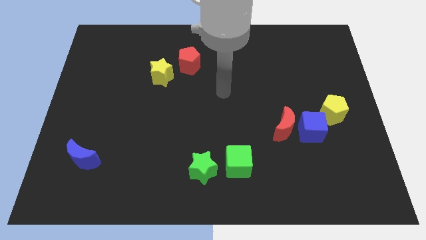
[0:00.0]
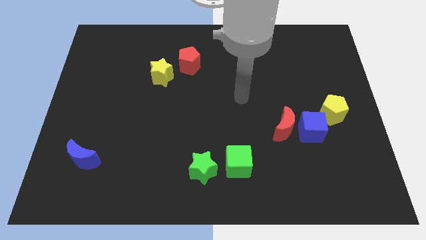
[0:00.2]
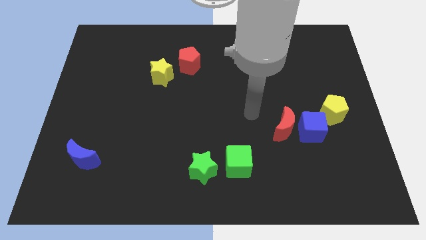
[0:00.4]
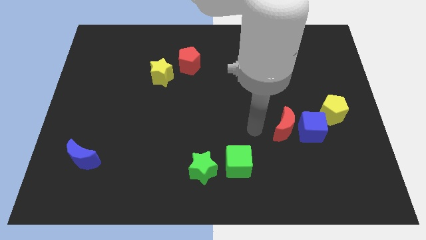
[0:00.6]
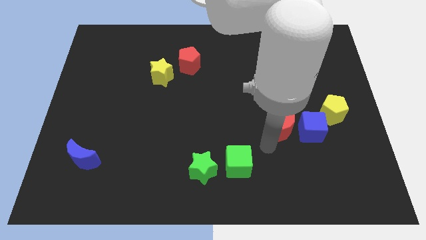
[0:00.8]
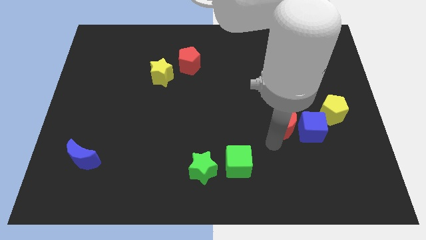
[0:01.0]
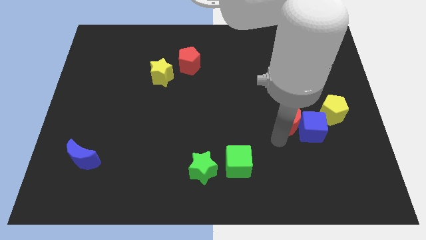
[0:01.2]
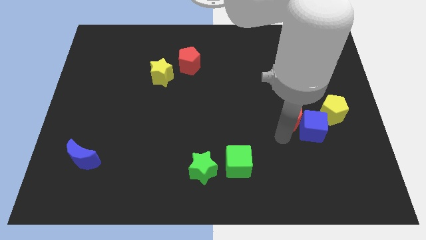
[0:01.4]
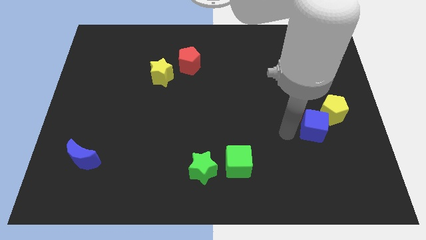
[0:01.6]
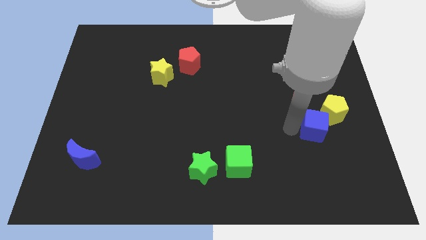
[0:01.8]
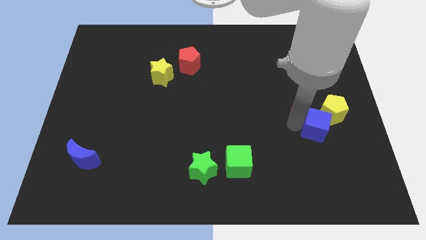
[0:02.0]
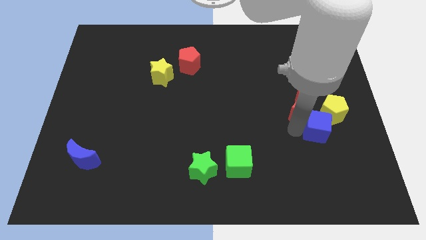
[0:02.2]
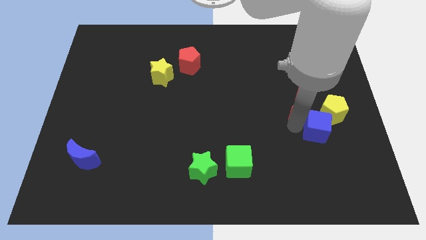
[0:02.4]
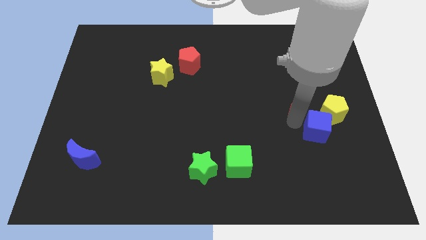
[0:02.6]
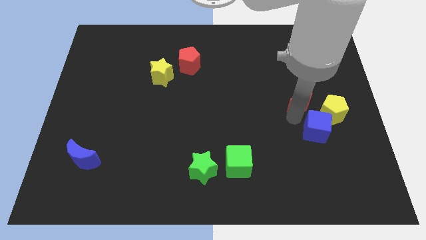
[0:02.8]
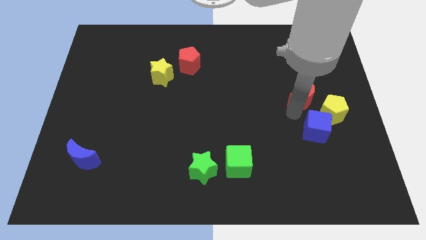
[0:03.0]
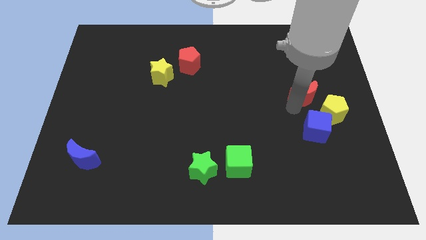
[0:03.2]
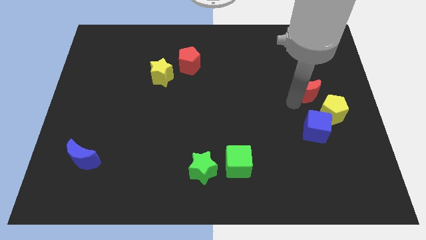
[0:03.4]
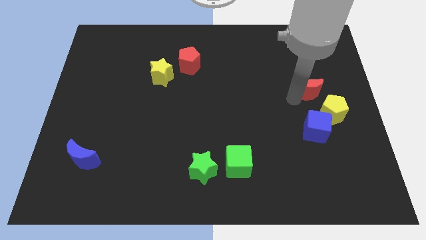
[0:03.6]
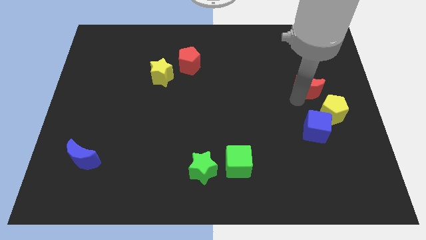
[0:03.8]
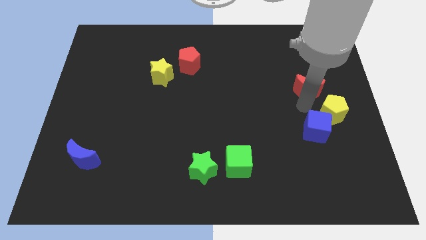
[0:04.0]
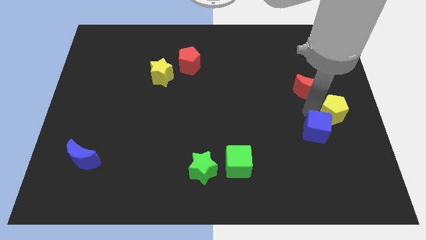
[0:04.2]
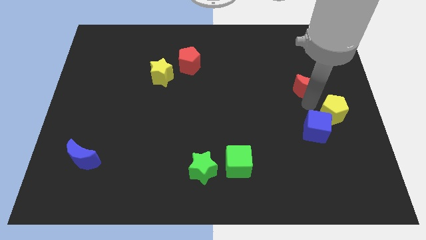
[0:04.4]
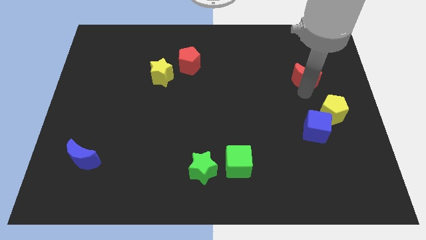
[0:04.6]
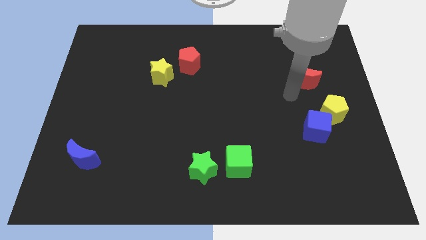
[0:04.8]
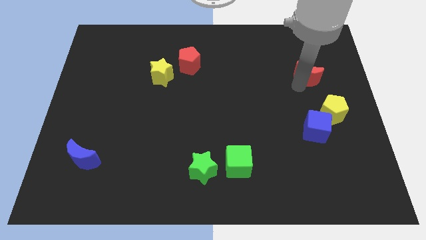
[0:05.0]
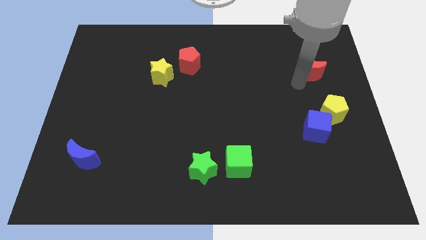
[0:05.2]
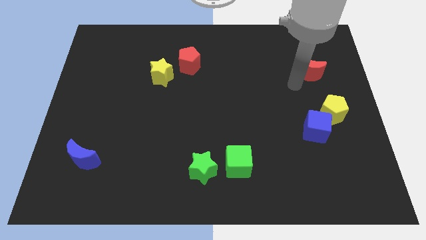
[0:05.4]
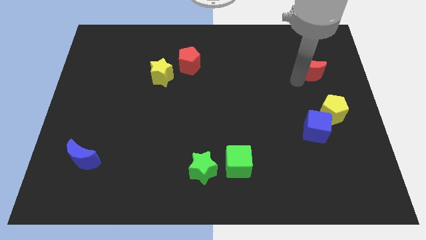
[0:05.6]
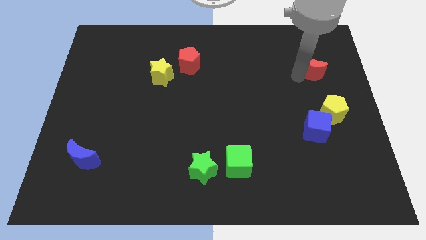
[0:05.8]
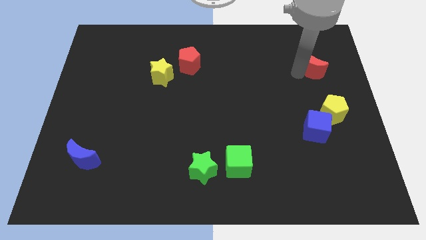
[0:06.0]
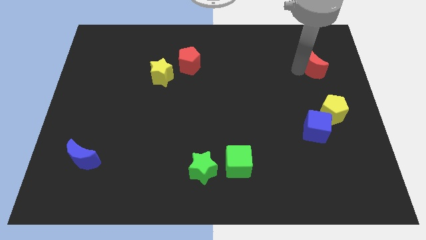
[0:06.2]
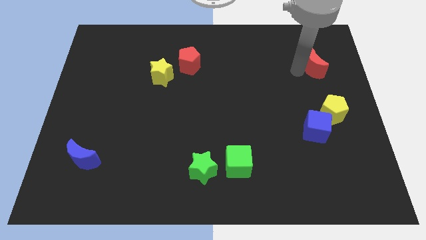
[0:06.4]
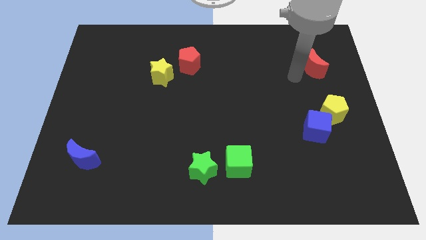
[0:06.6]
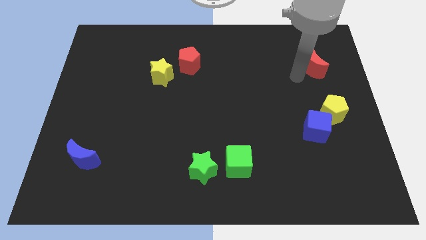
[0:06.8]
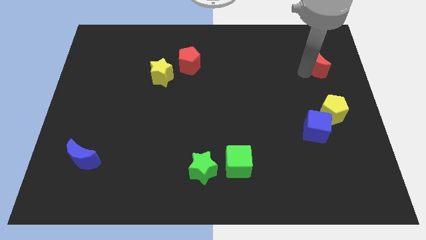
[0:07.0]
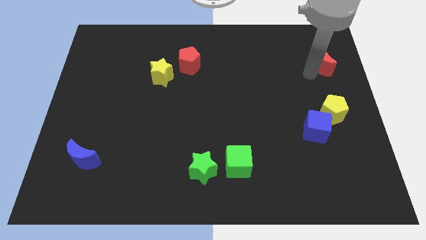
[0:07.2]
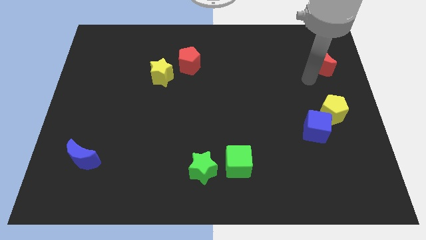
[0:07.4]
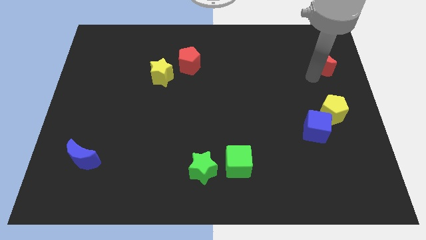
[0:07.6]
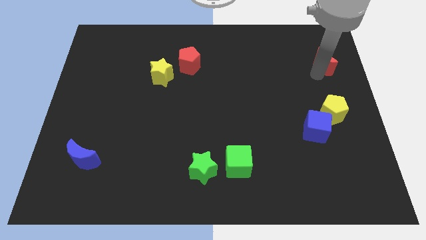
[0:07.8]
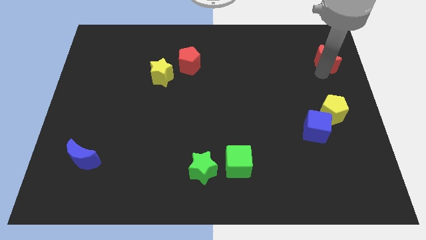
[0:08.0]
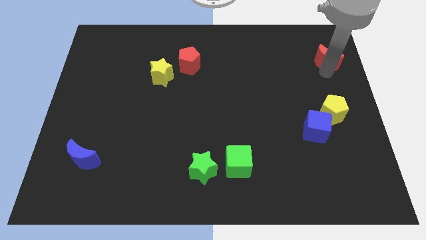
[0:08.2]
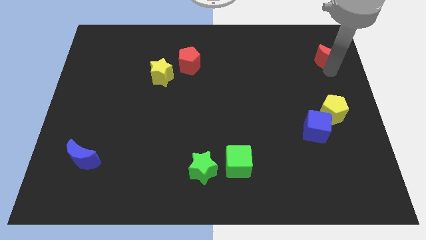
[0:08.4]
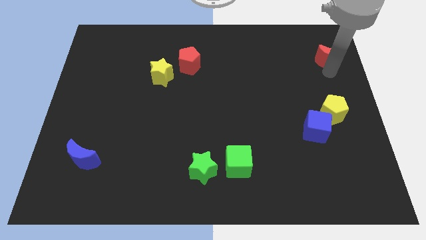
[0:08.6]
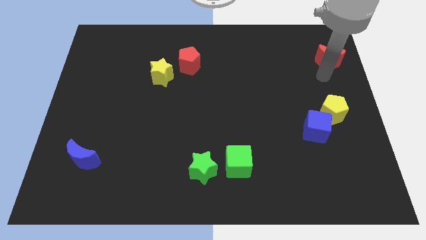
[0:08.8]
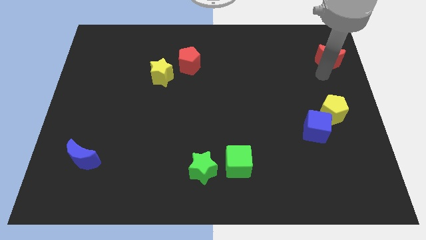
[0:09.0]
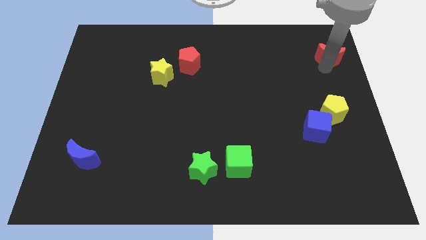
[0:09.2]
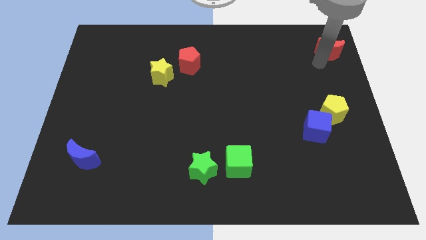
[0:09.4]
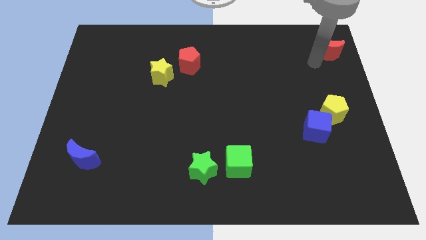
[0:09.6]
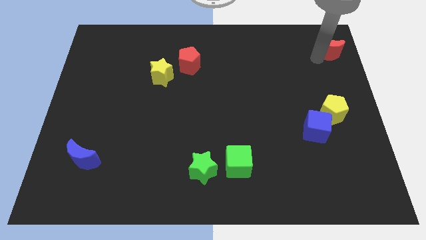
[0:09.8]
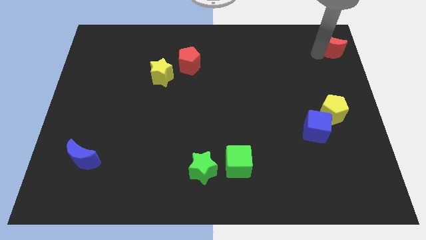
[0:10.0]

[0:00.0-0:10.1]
slide the red moon to the top right of the board

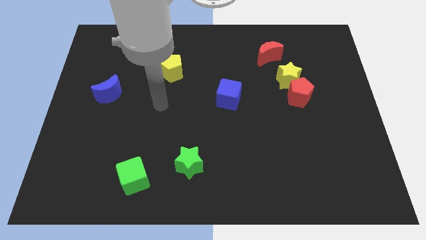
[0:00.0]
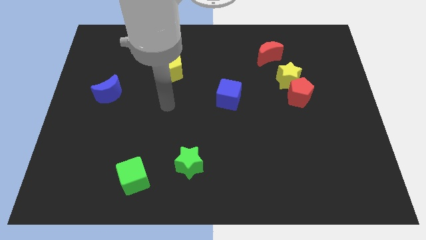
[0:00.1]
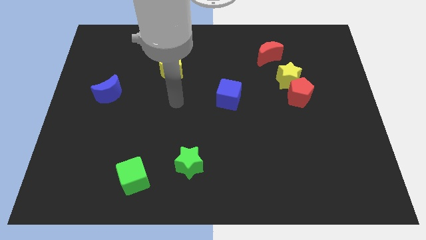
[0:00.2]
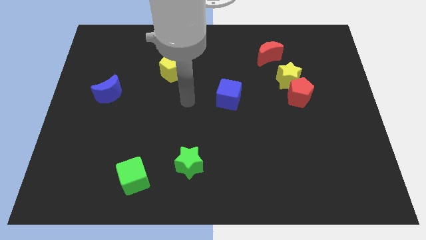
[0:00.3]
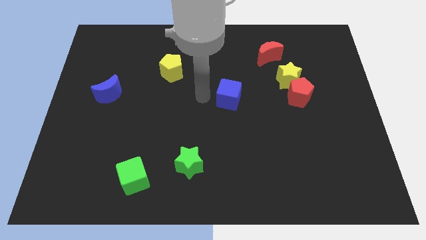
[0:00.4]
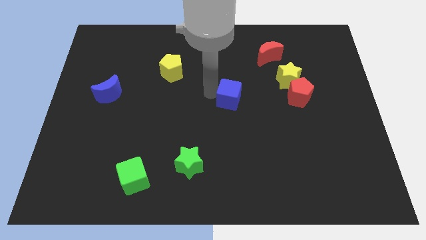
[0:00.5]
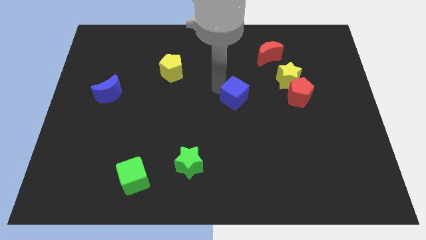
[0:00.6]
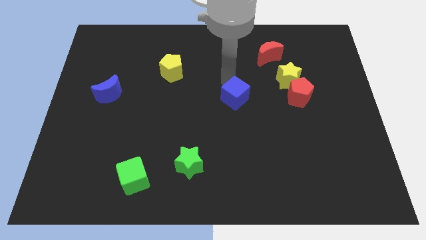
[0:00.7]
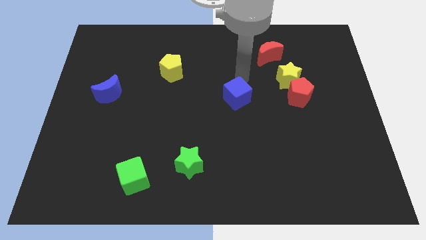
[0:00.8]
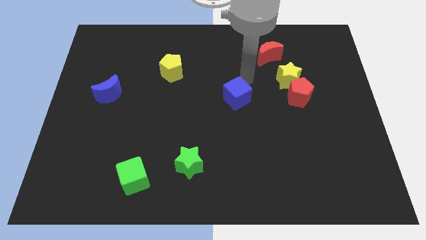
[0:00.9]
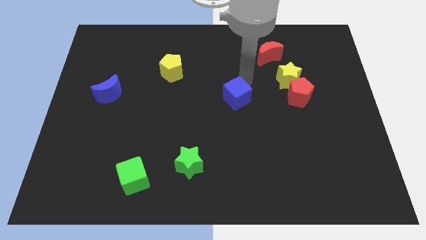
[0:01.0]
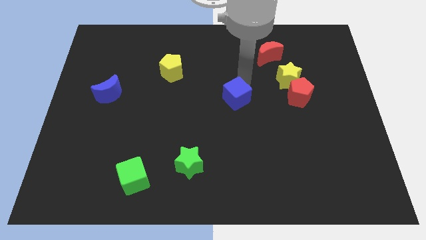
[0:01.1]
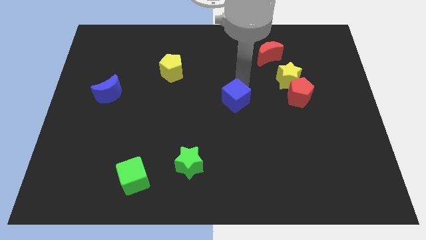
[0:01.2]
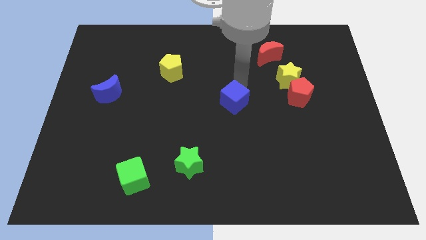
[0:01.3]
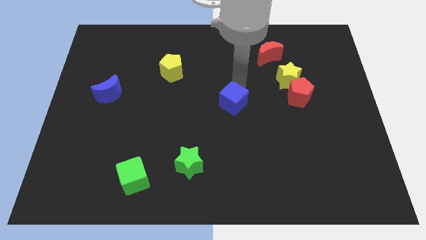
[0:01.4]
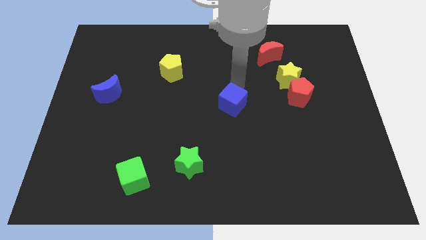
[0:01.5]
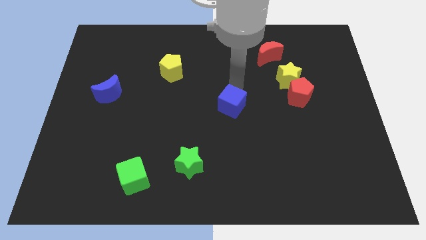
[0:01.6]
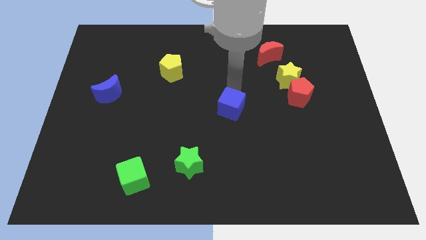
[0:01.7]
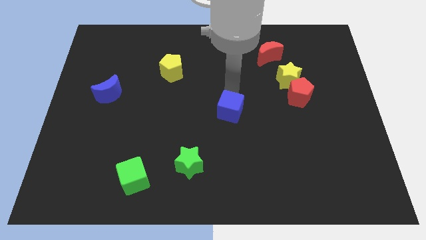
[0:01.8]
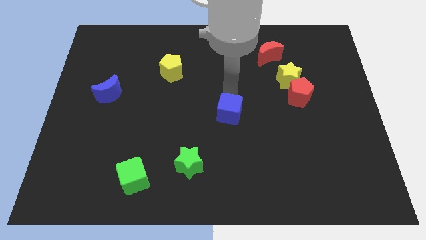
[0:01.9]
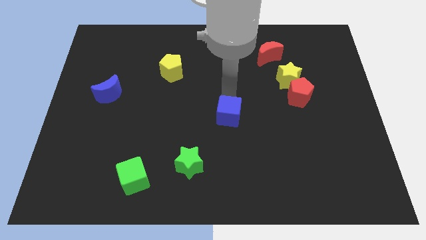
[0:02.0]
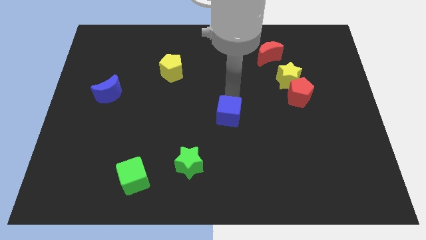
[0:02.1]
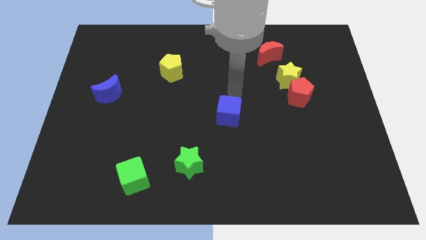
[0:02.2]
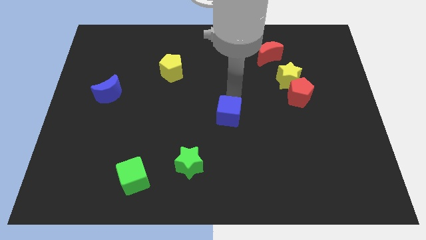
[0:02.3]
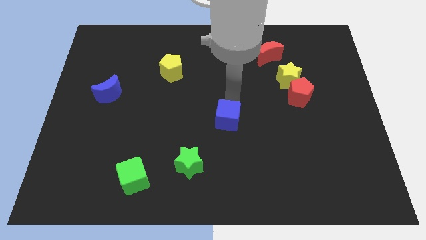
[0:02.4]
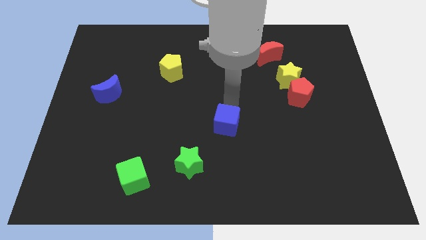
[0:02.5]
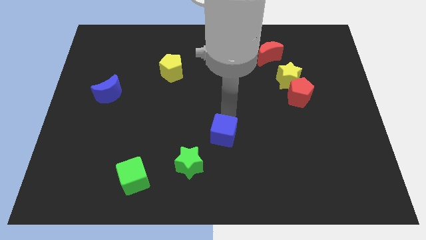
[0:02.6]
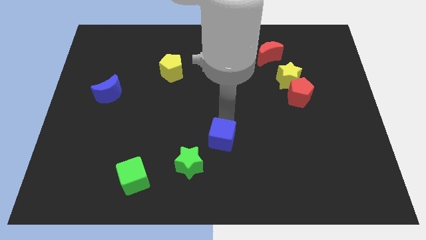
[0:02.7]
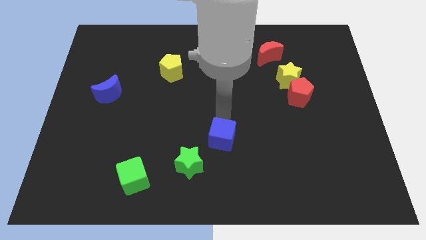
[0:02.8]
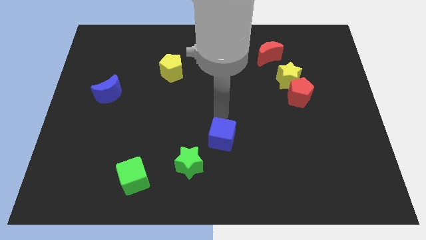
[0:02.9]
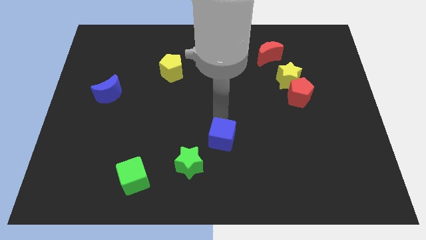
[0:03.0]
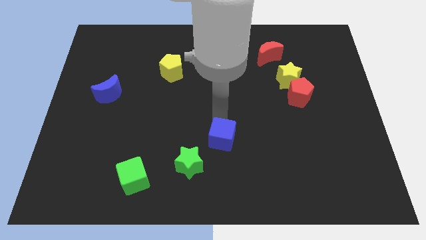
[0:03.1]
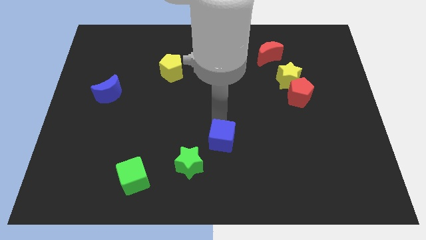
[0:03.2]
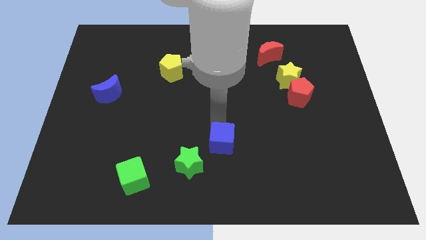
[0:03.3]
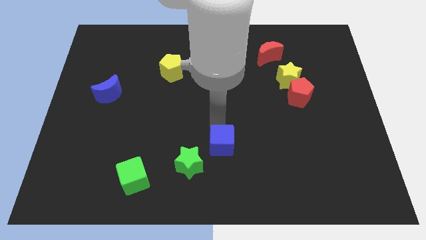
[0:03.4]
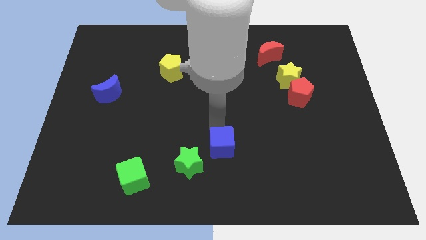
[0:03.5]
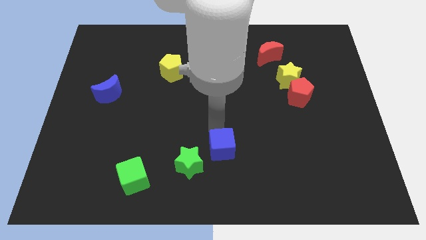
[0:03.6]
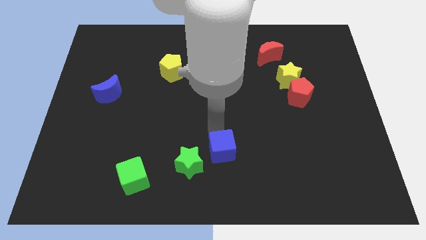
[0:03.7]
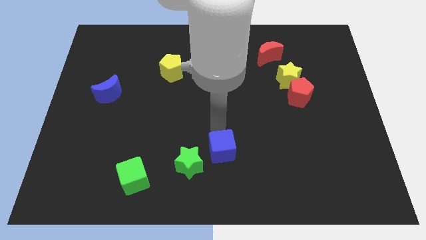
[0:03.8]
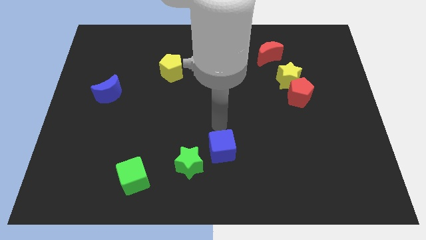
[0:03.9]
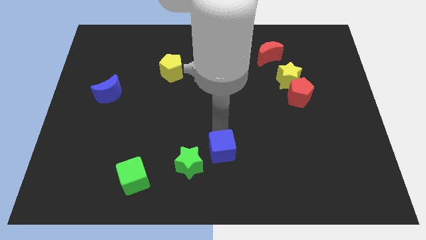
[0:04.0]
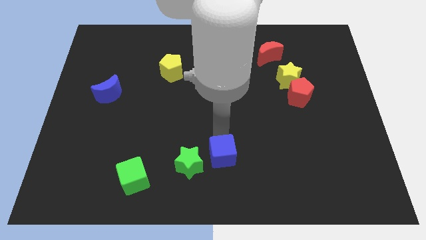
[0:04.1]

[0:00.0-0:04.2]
put the blue cube to the bottom side
